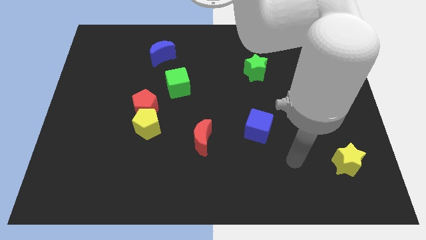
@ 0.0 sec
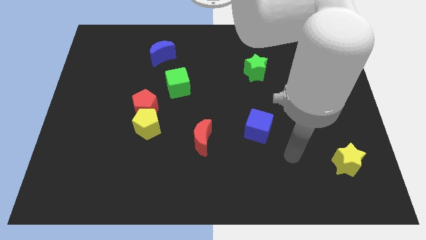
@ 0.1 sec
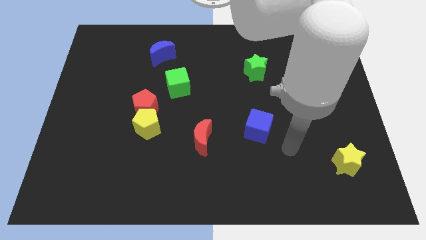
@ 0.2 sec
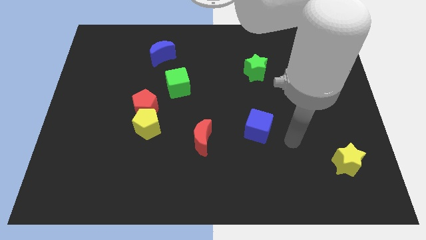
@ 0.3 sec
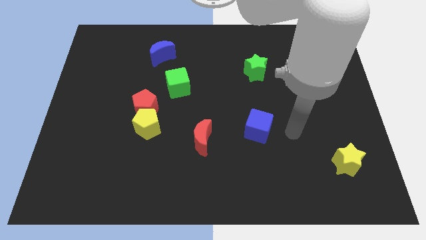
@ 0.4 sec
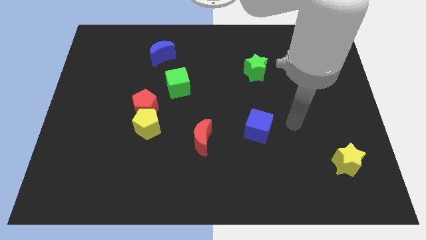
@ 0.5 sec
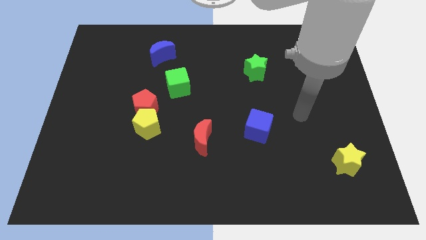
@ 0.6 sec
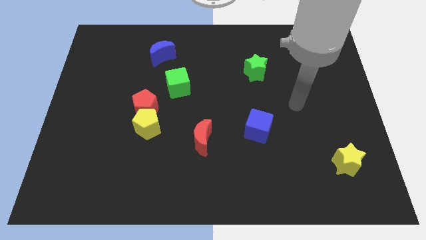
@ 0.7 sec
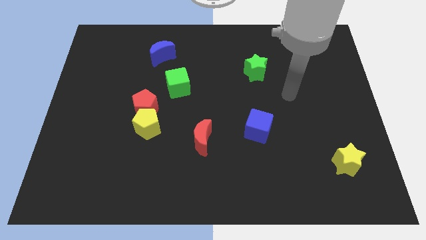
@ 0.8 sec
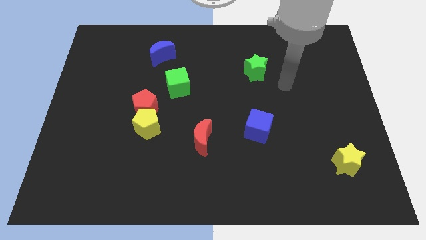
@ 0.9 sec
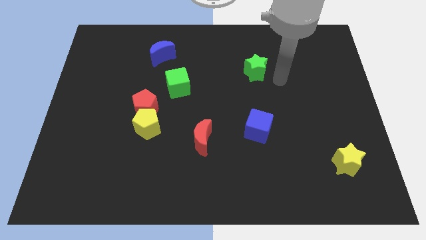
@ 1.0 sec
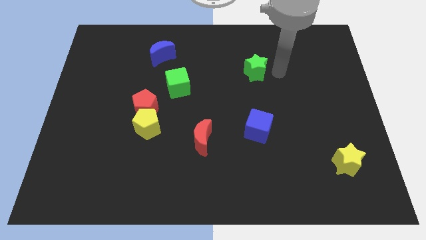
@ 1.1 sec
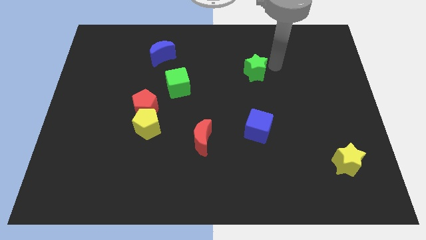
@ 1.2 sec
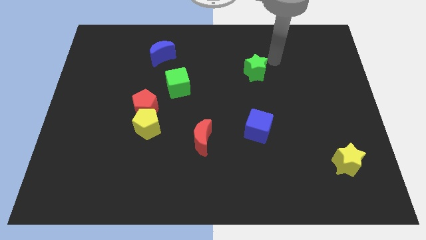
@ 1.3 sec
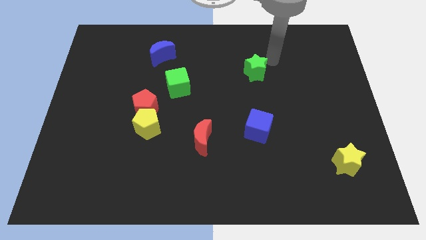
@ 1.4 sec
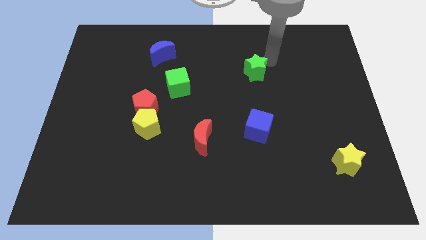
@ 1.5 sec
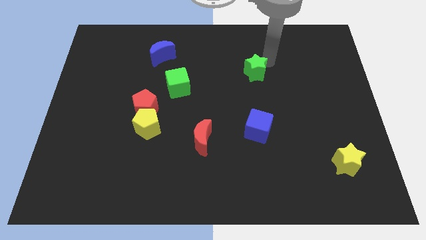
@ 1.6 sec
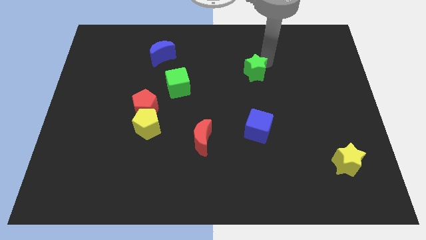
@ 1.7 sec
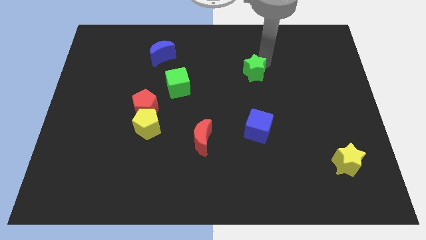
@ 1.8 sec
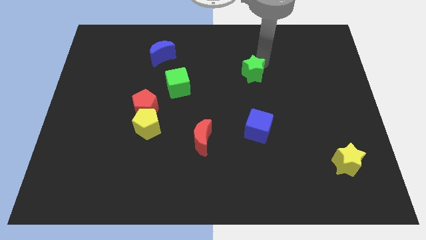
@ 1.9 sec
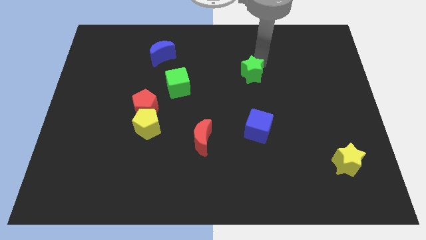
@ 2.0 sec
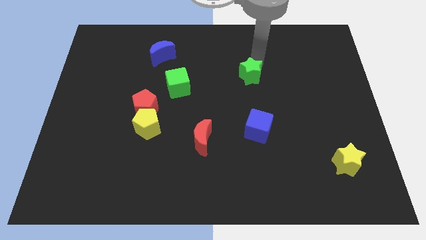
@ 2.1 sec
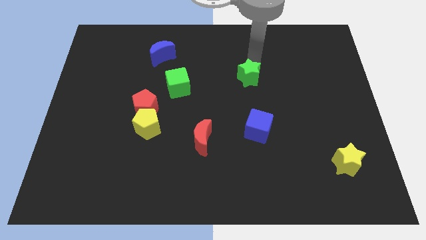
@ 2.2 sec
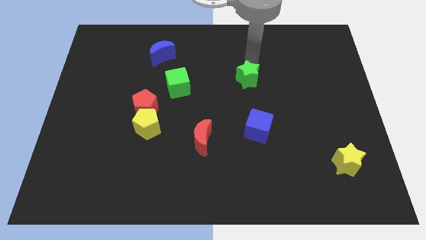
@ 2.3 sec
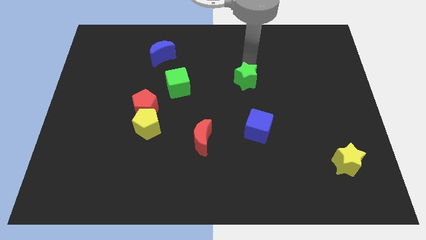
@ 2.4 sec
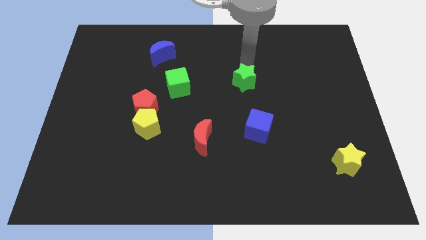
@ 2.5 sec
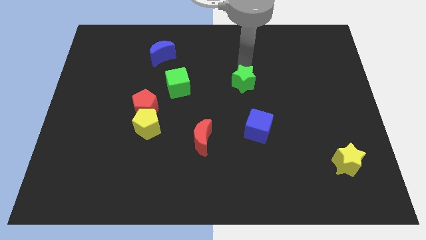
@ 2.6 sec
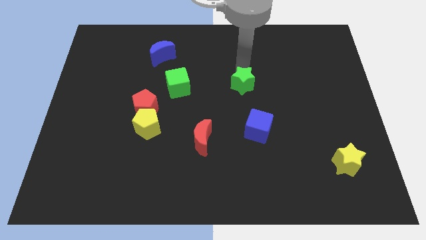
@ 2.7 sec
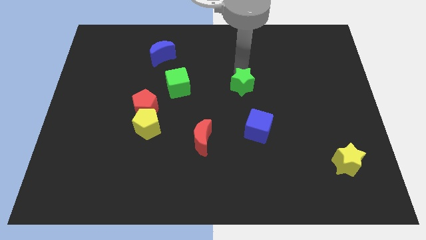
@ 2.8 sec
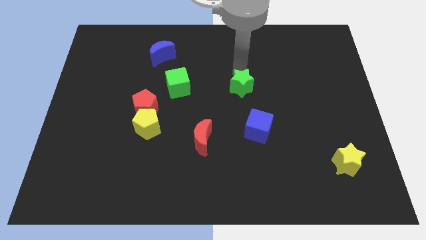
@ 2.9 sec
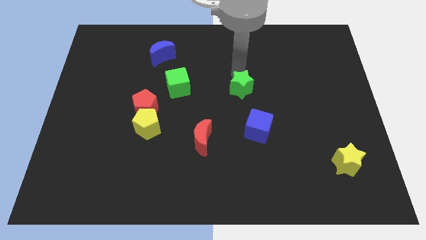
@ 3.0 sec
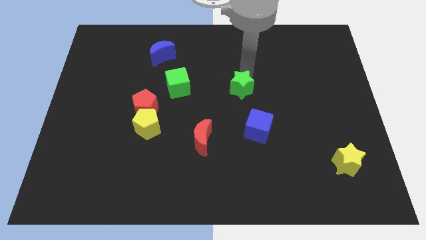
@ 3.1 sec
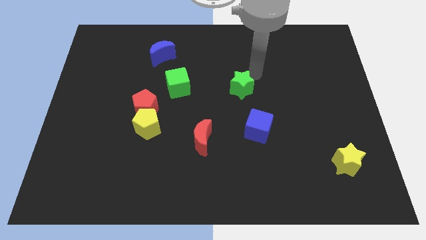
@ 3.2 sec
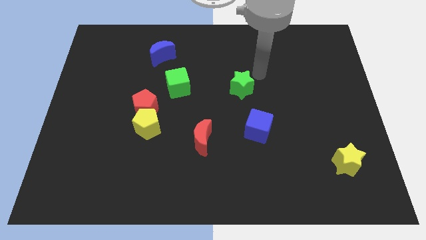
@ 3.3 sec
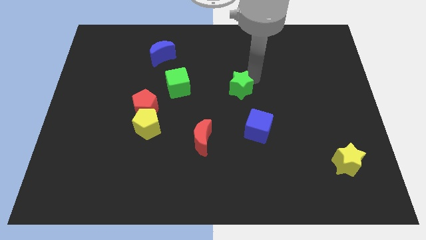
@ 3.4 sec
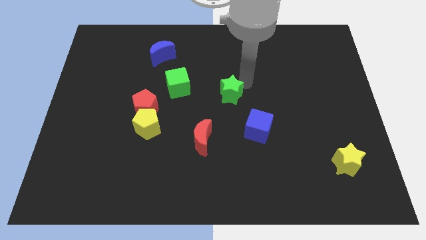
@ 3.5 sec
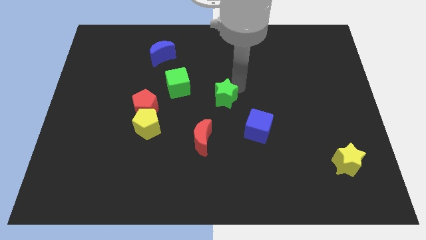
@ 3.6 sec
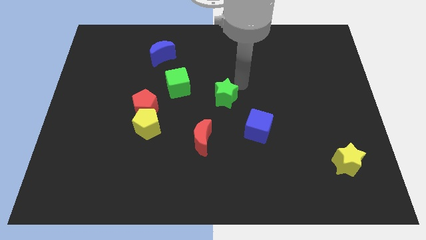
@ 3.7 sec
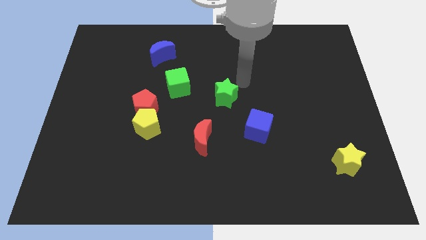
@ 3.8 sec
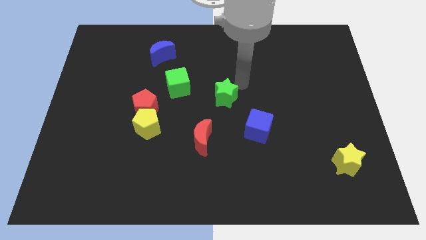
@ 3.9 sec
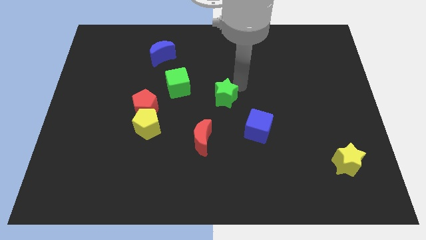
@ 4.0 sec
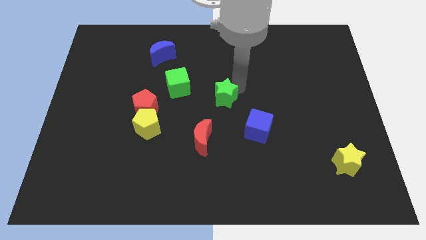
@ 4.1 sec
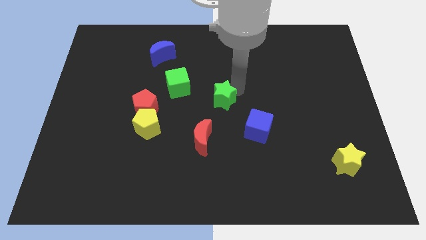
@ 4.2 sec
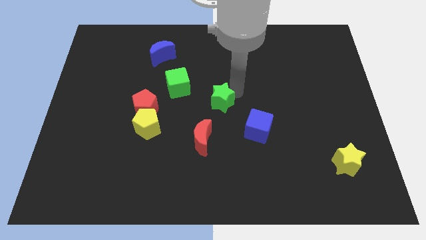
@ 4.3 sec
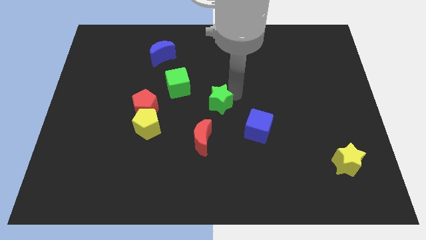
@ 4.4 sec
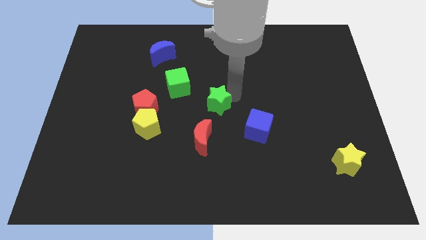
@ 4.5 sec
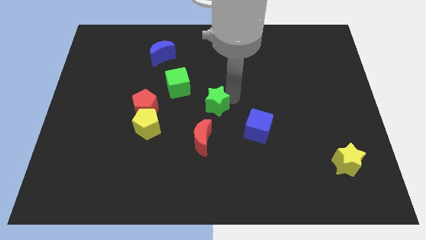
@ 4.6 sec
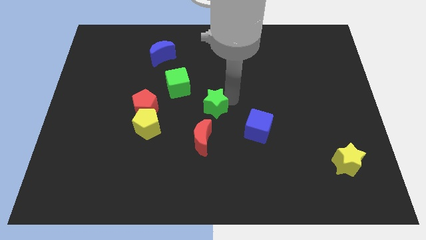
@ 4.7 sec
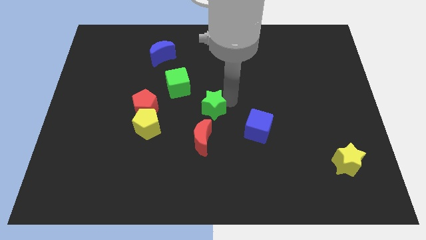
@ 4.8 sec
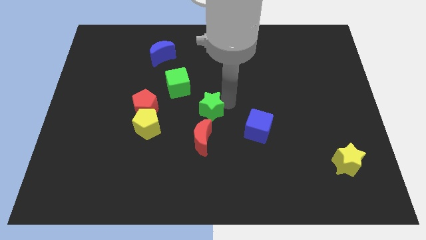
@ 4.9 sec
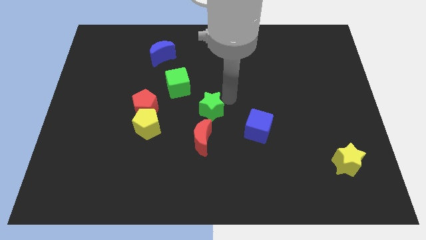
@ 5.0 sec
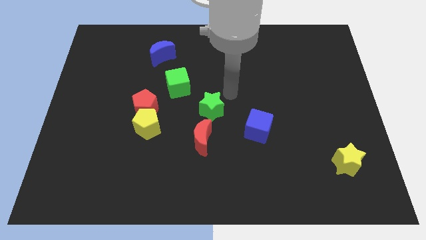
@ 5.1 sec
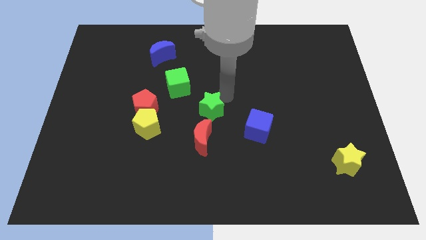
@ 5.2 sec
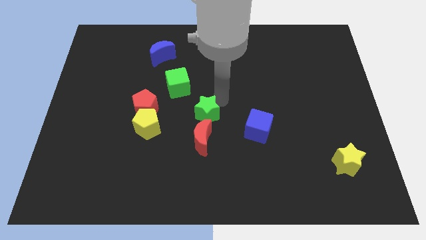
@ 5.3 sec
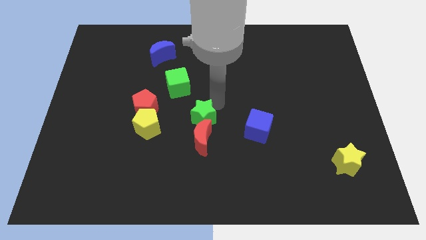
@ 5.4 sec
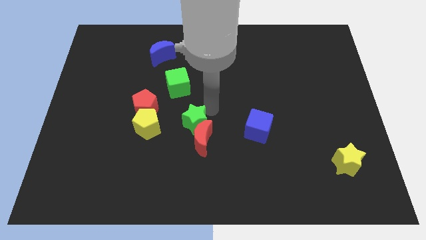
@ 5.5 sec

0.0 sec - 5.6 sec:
slide the green star downwards and to the left

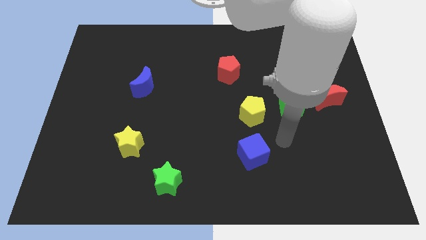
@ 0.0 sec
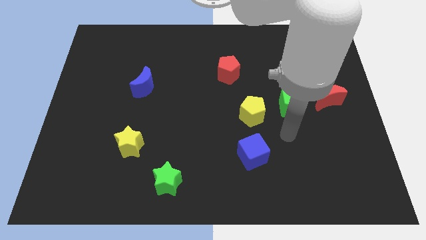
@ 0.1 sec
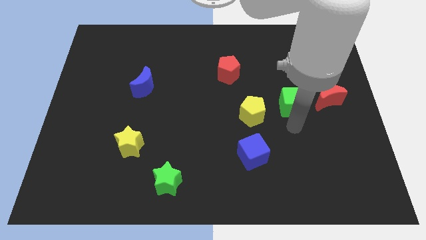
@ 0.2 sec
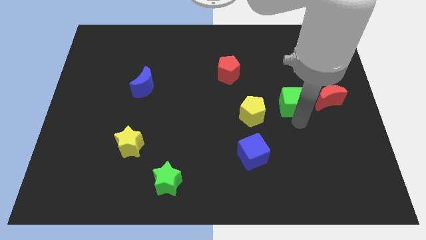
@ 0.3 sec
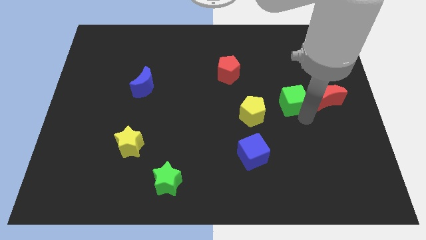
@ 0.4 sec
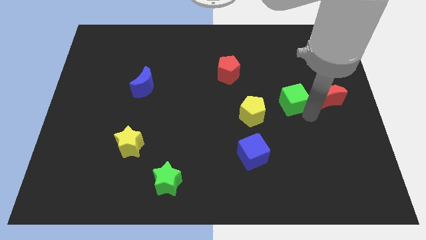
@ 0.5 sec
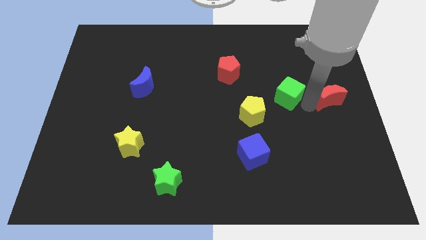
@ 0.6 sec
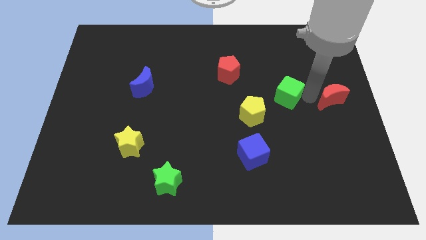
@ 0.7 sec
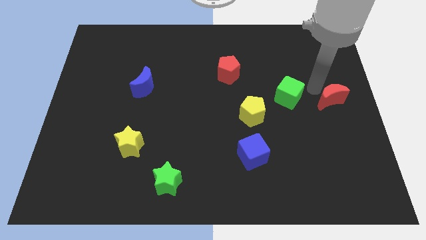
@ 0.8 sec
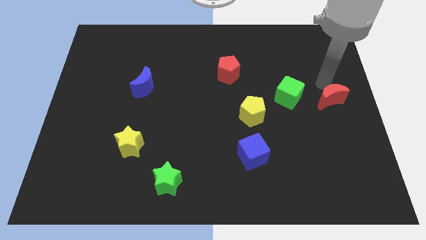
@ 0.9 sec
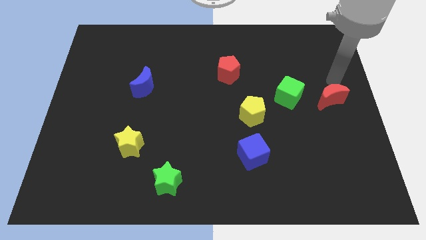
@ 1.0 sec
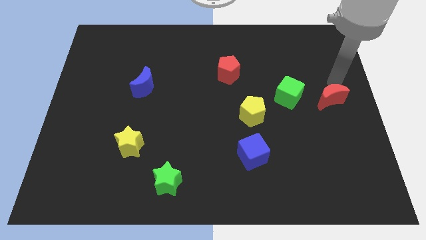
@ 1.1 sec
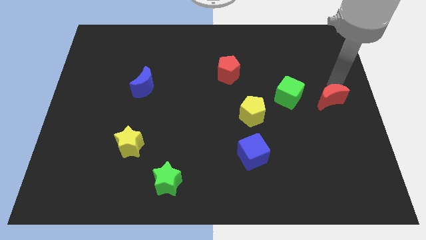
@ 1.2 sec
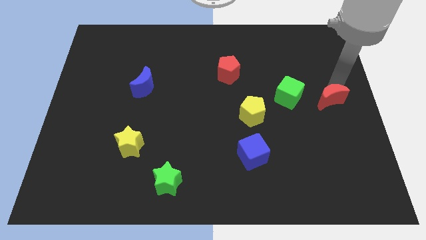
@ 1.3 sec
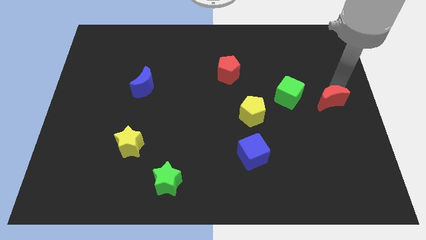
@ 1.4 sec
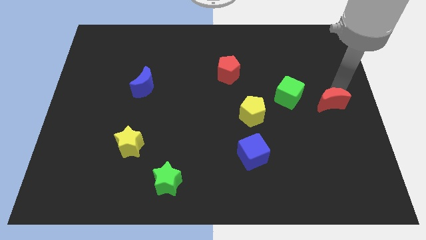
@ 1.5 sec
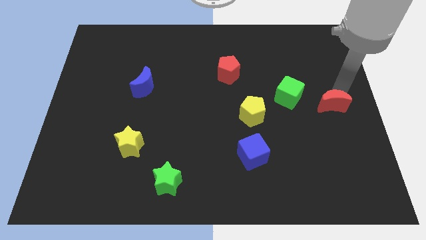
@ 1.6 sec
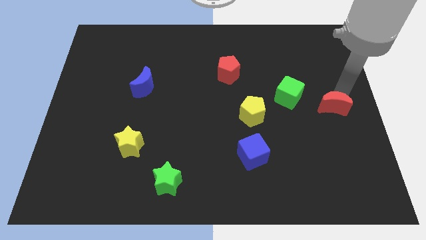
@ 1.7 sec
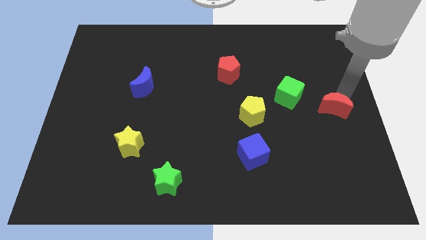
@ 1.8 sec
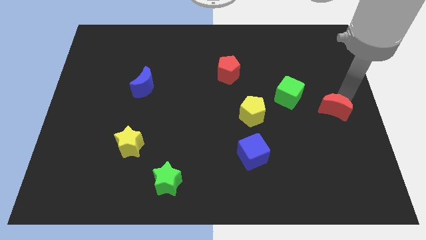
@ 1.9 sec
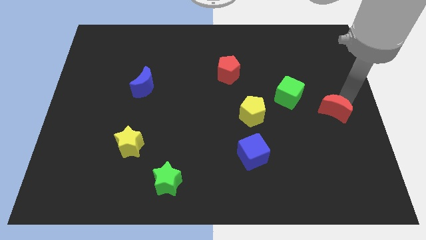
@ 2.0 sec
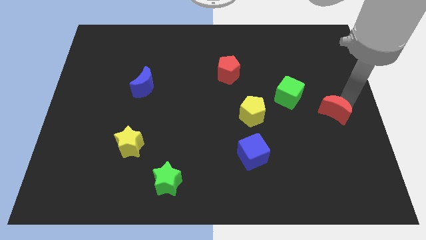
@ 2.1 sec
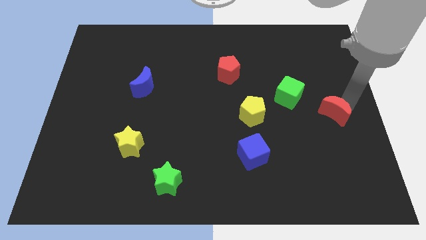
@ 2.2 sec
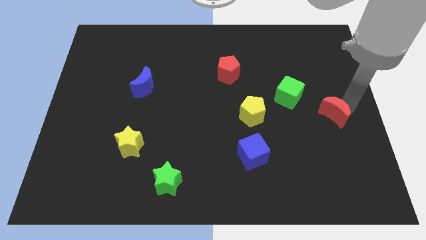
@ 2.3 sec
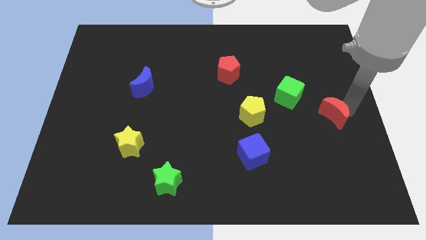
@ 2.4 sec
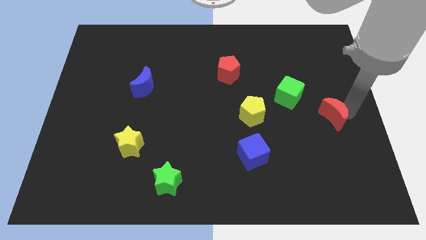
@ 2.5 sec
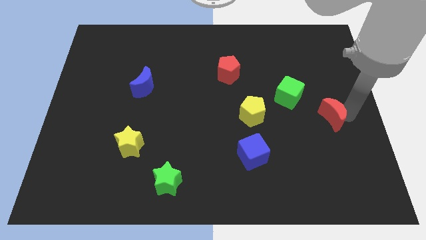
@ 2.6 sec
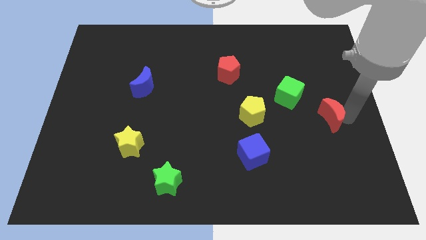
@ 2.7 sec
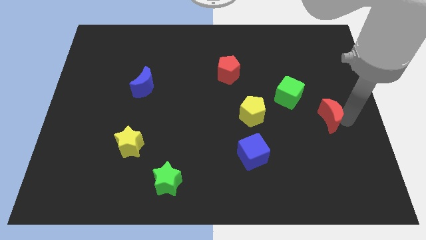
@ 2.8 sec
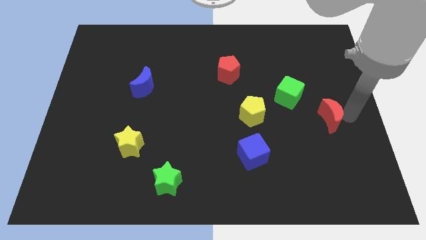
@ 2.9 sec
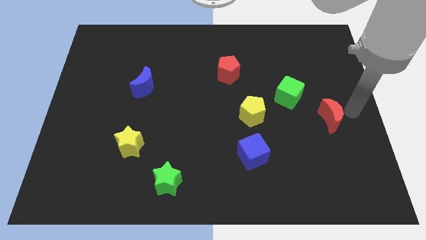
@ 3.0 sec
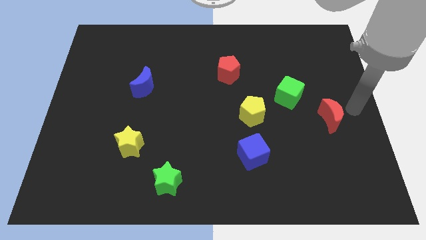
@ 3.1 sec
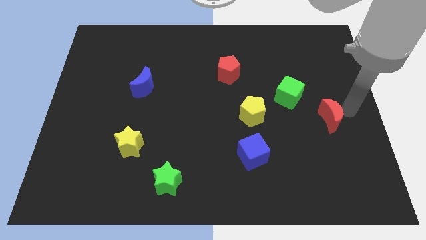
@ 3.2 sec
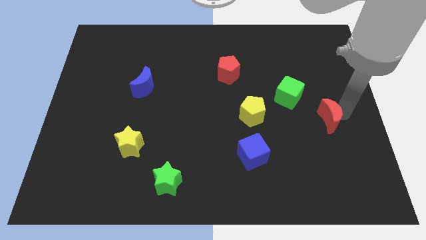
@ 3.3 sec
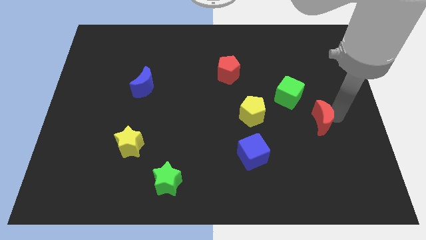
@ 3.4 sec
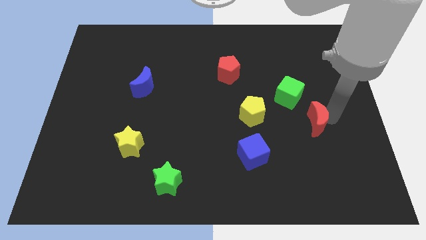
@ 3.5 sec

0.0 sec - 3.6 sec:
slightly slide the red moon diagonally down and left
